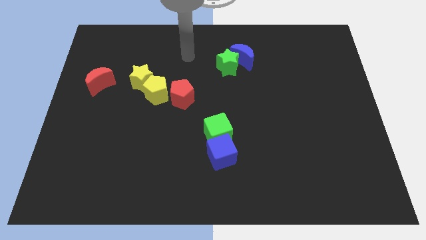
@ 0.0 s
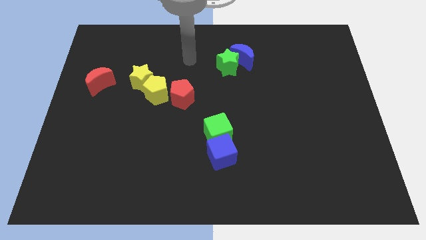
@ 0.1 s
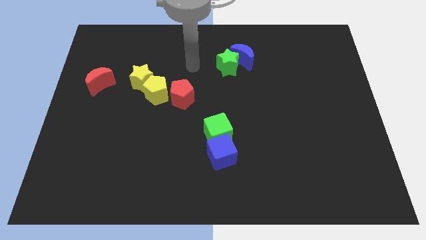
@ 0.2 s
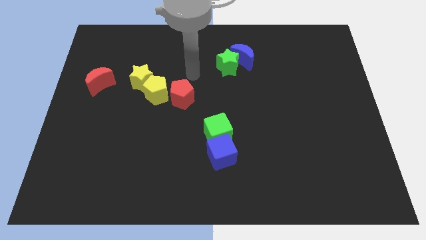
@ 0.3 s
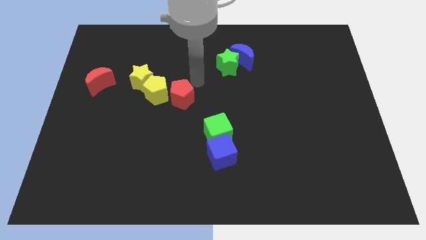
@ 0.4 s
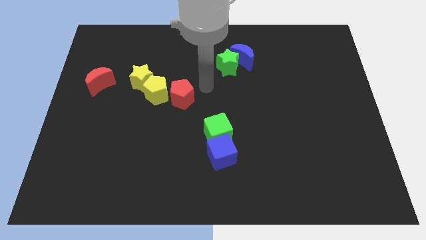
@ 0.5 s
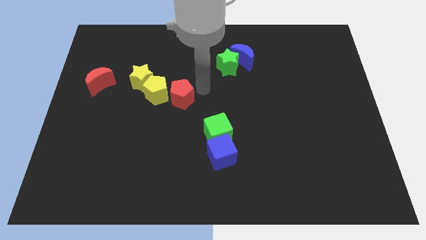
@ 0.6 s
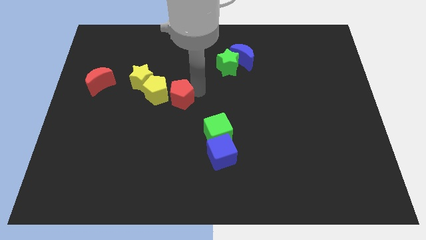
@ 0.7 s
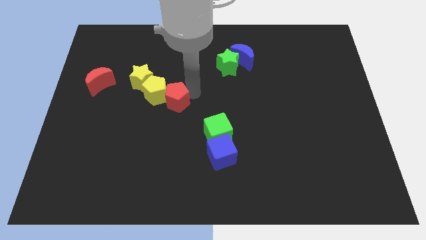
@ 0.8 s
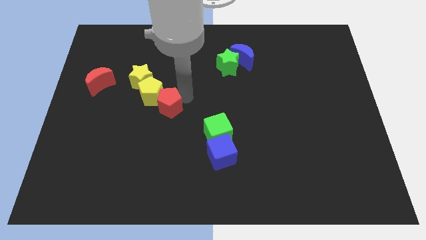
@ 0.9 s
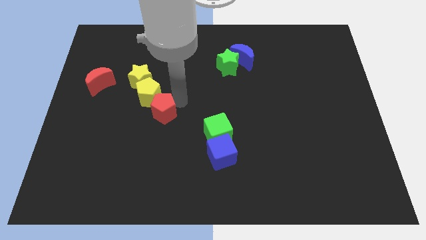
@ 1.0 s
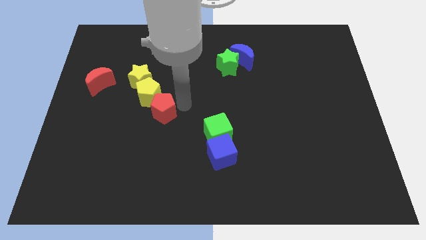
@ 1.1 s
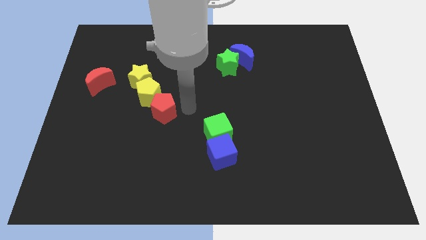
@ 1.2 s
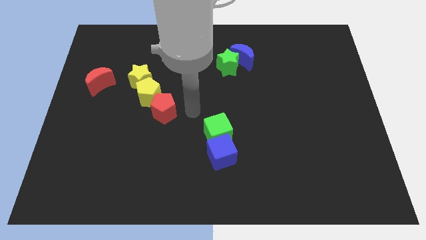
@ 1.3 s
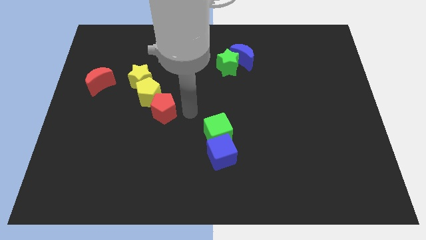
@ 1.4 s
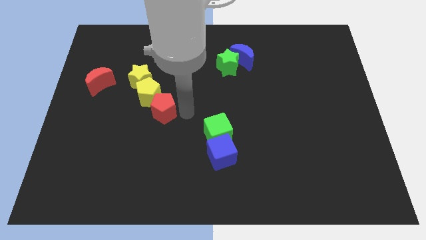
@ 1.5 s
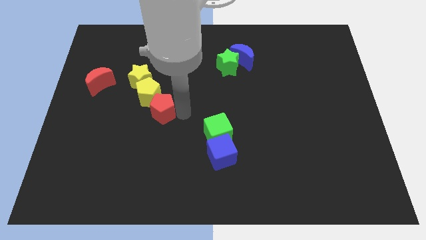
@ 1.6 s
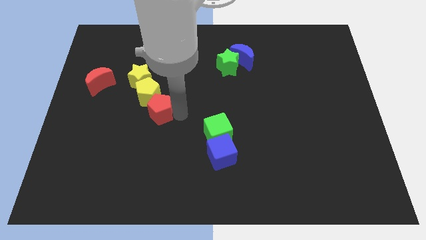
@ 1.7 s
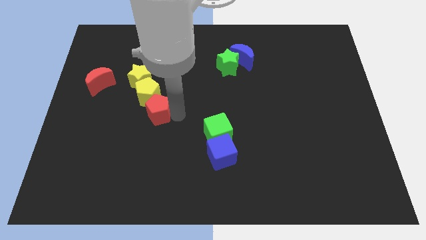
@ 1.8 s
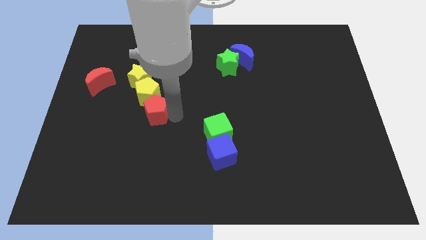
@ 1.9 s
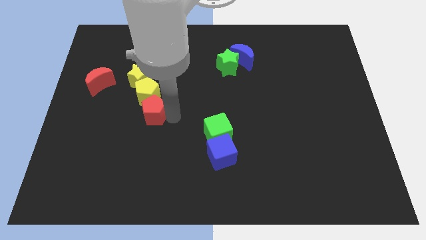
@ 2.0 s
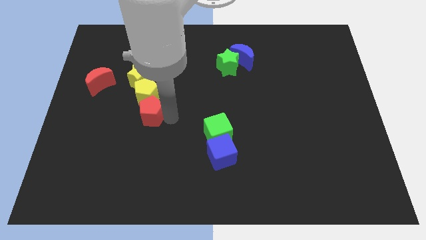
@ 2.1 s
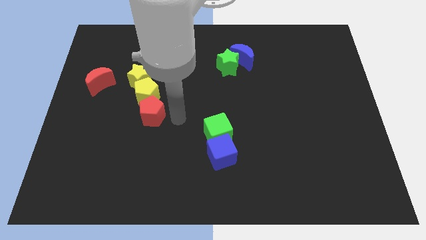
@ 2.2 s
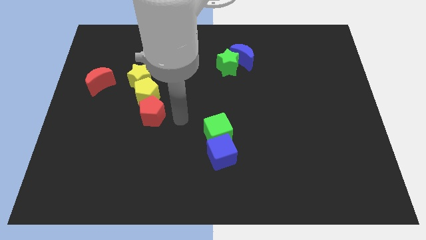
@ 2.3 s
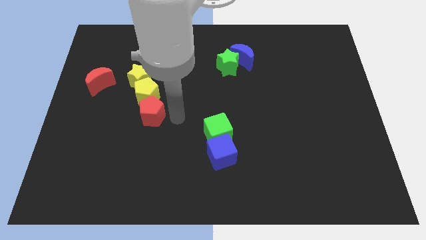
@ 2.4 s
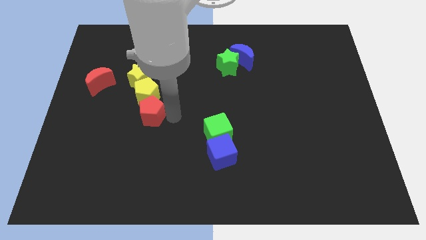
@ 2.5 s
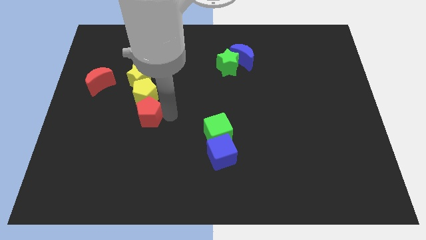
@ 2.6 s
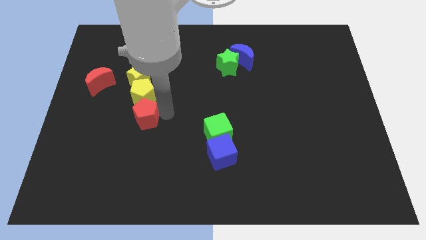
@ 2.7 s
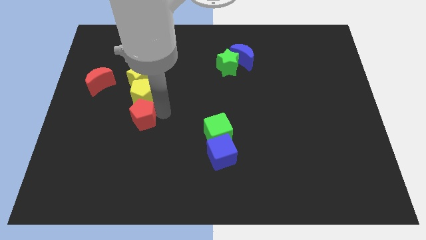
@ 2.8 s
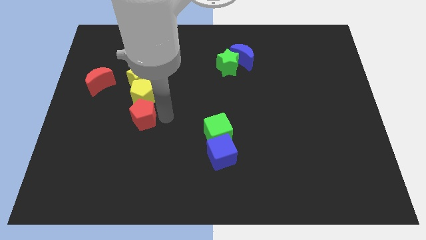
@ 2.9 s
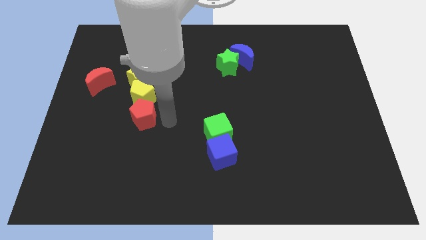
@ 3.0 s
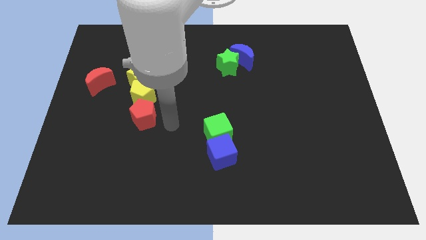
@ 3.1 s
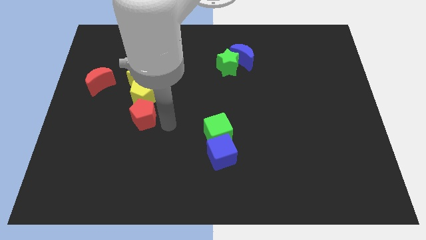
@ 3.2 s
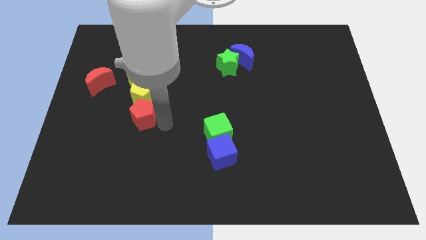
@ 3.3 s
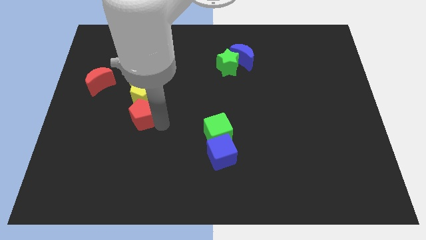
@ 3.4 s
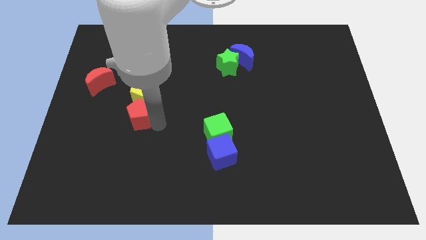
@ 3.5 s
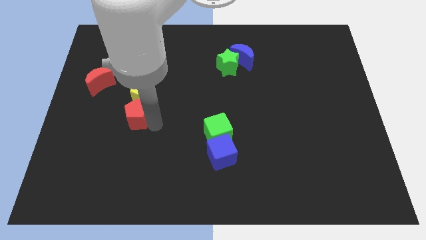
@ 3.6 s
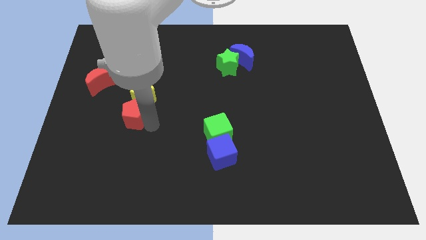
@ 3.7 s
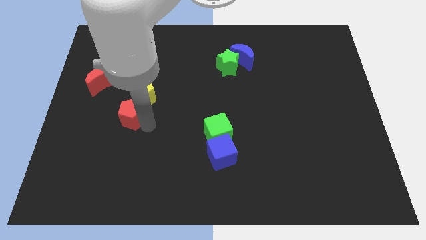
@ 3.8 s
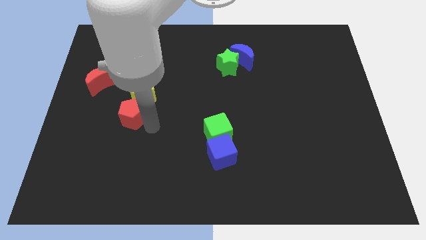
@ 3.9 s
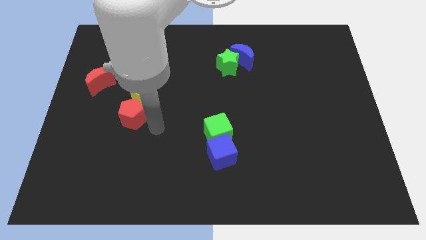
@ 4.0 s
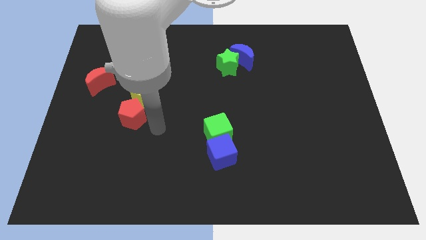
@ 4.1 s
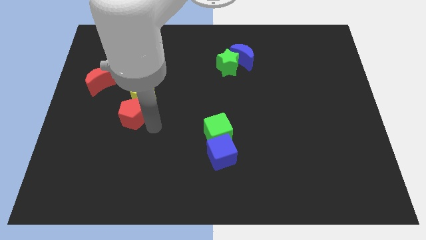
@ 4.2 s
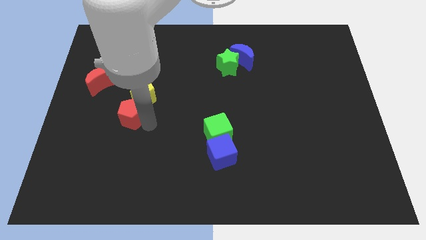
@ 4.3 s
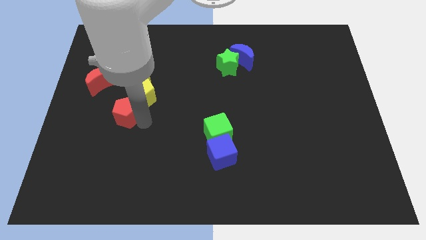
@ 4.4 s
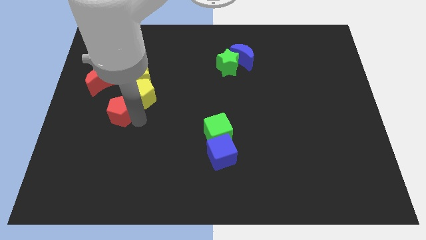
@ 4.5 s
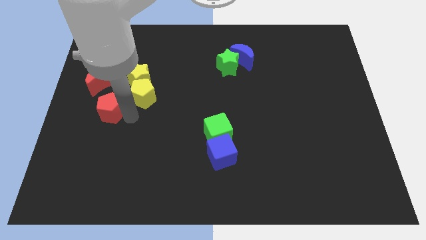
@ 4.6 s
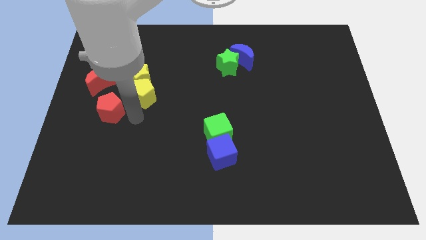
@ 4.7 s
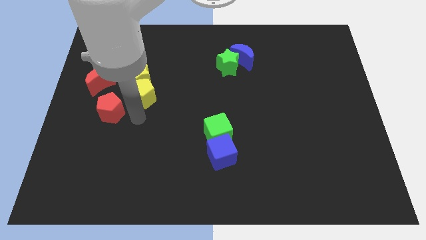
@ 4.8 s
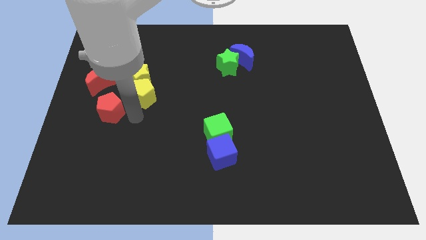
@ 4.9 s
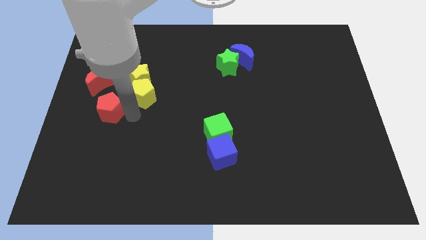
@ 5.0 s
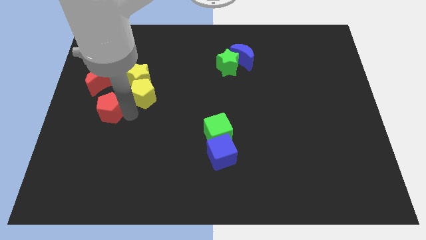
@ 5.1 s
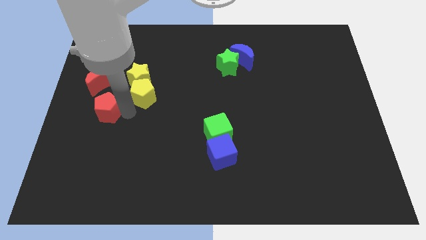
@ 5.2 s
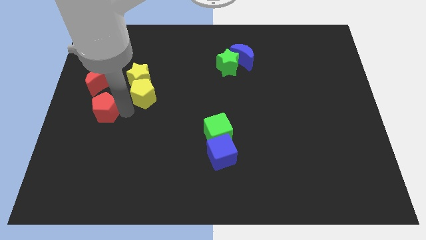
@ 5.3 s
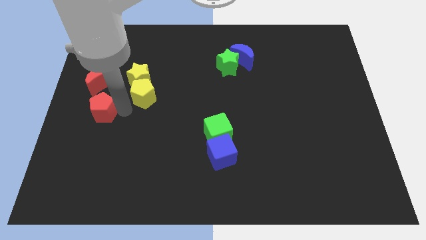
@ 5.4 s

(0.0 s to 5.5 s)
push the red pentagon to the left side of the board
